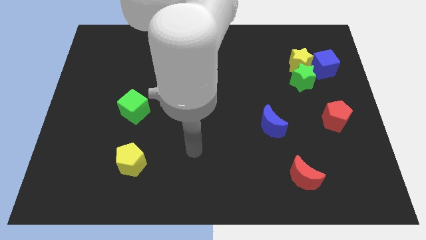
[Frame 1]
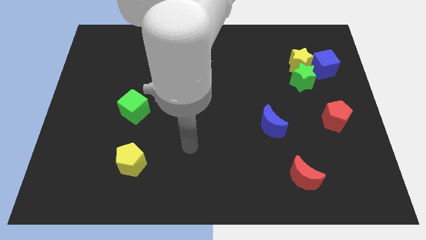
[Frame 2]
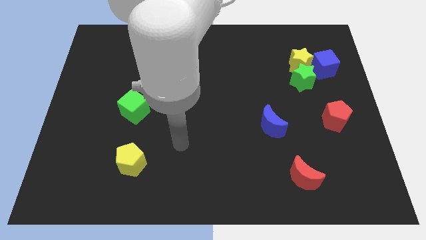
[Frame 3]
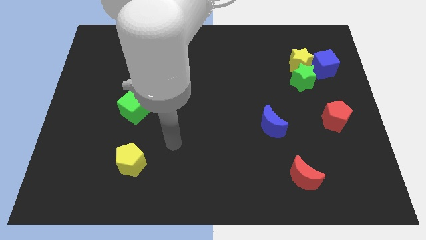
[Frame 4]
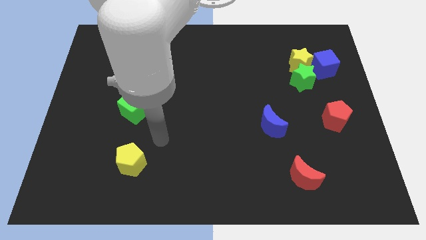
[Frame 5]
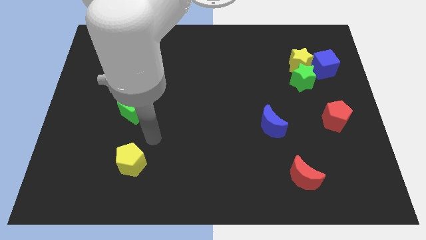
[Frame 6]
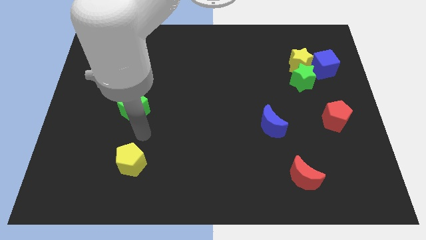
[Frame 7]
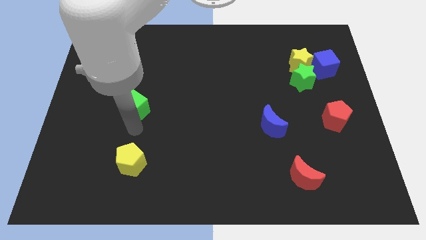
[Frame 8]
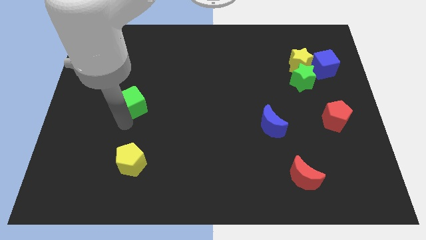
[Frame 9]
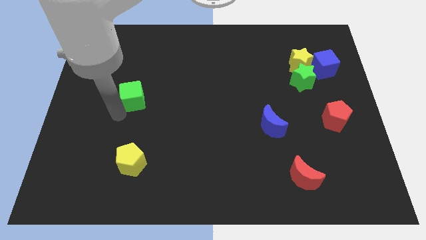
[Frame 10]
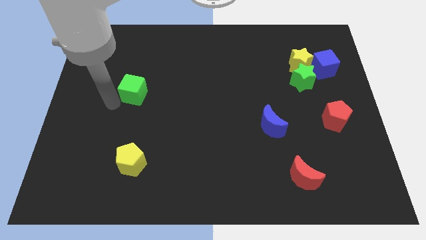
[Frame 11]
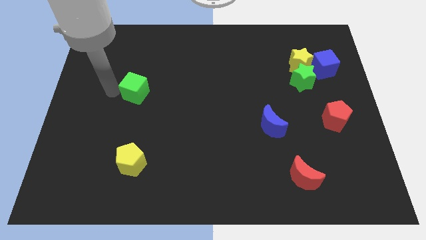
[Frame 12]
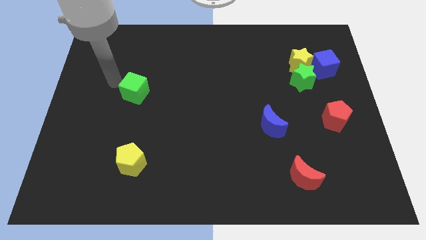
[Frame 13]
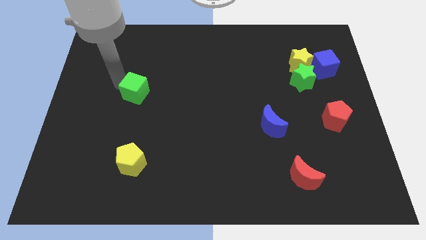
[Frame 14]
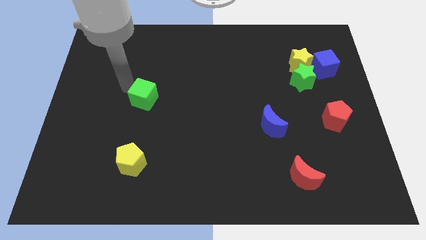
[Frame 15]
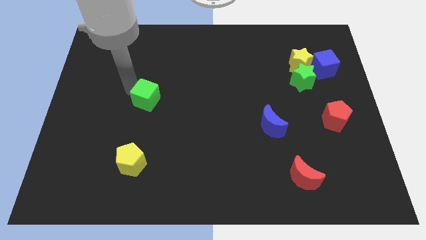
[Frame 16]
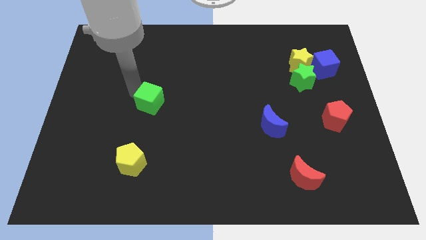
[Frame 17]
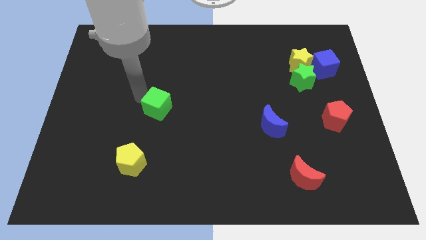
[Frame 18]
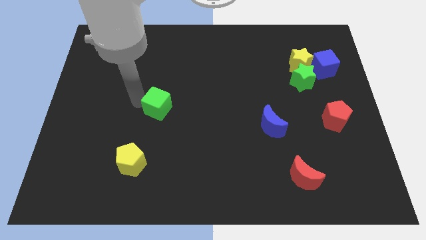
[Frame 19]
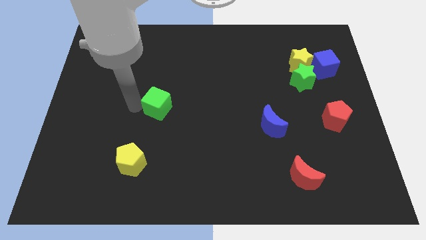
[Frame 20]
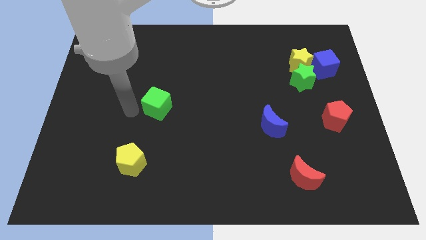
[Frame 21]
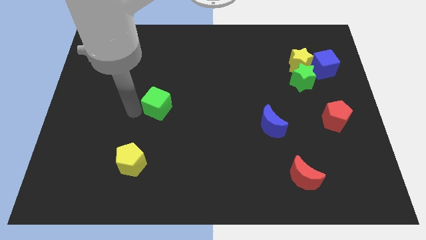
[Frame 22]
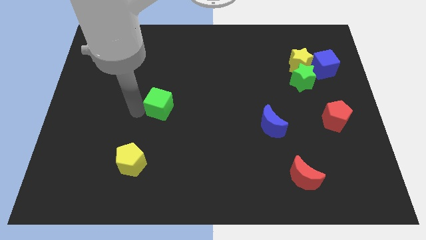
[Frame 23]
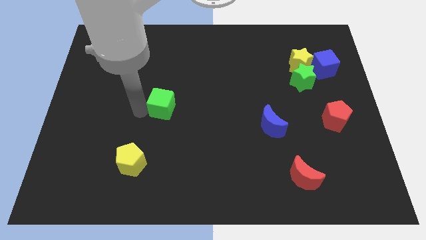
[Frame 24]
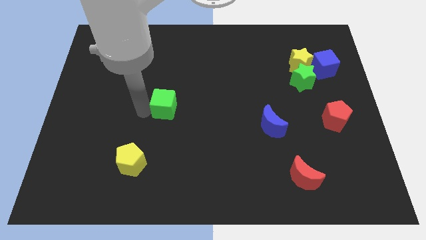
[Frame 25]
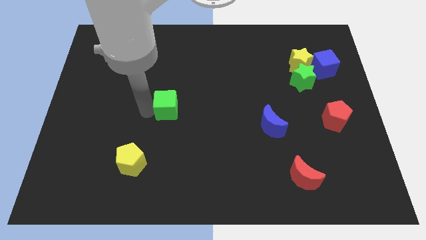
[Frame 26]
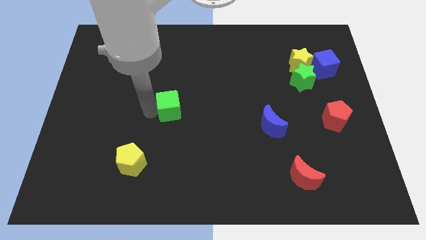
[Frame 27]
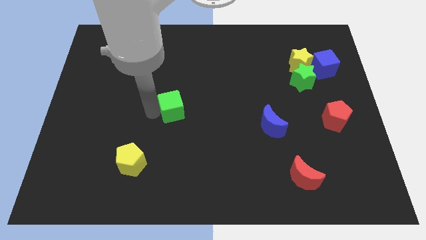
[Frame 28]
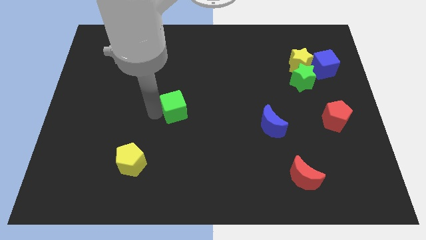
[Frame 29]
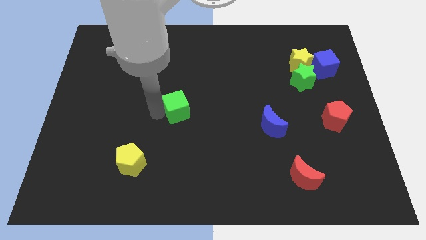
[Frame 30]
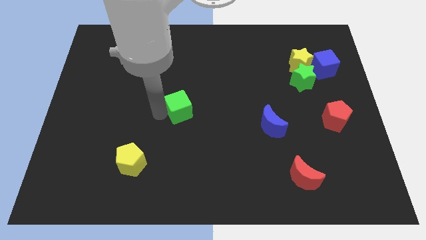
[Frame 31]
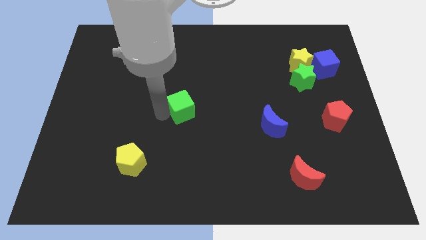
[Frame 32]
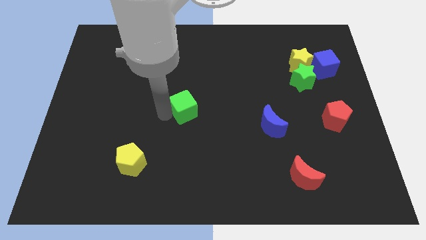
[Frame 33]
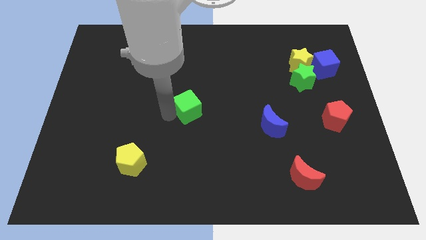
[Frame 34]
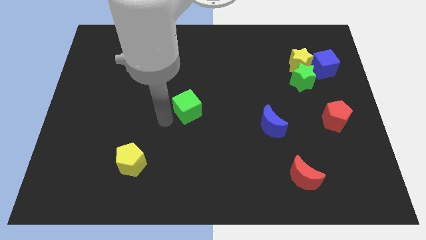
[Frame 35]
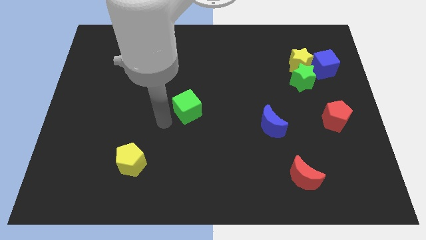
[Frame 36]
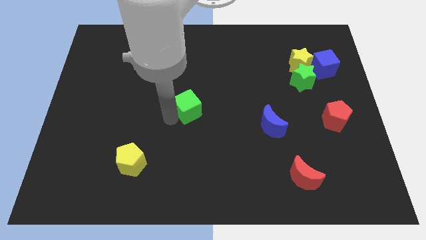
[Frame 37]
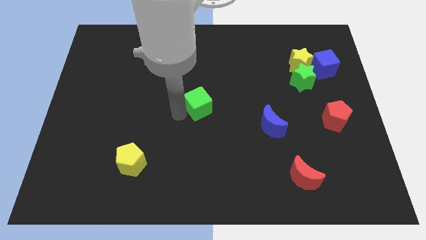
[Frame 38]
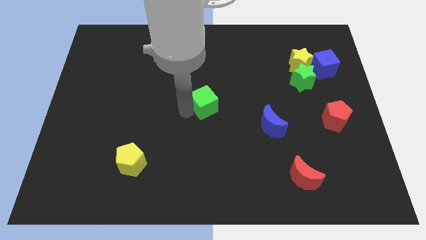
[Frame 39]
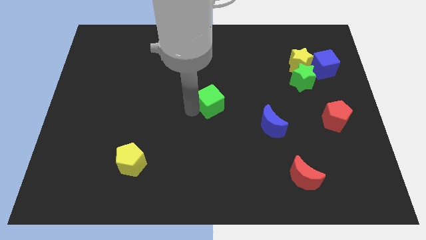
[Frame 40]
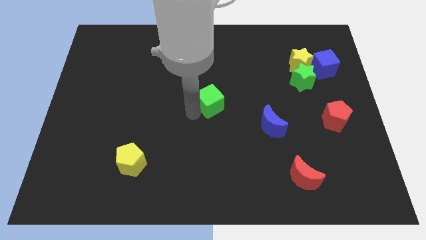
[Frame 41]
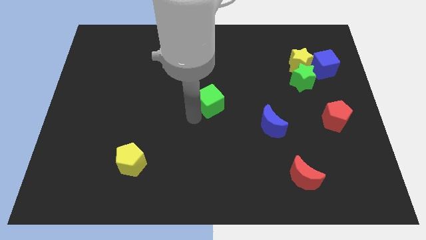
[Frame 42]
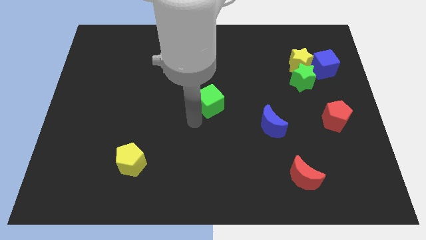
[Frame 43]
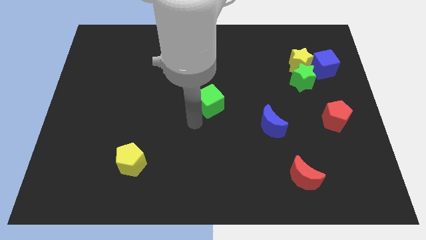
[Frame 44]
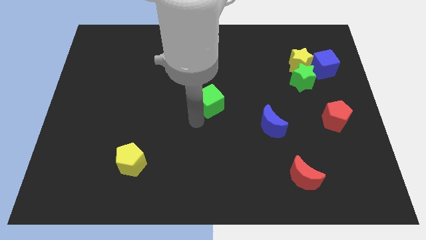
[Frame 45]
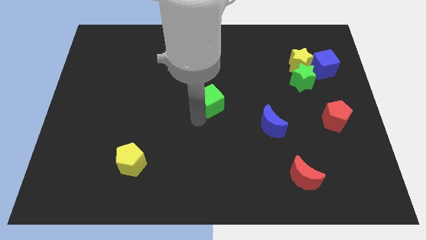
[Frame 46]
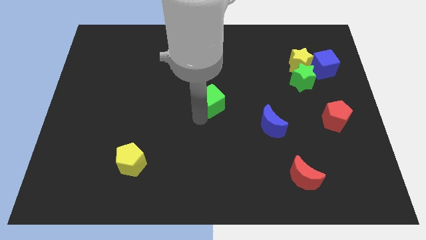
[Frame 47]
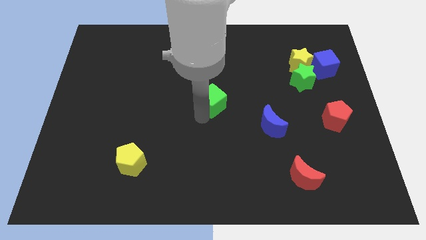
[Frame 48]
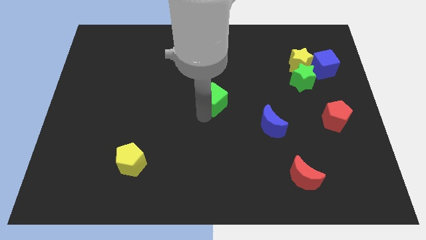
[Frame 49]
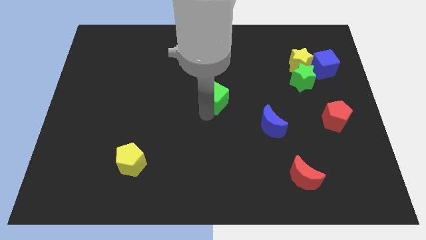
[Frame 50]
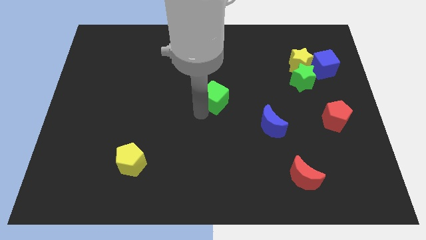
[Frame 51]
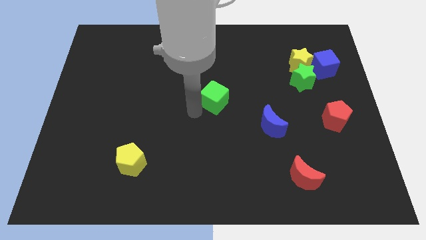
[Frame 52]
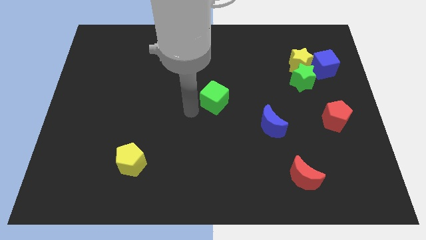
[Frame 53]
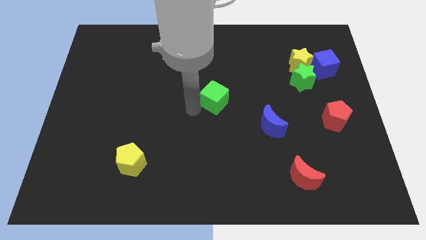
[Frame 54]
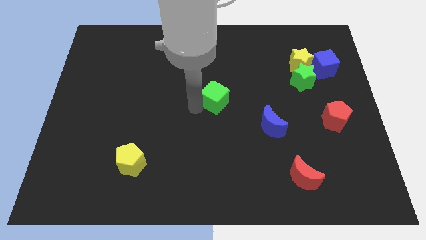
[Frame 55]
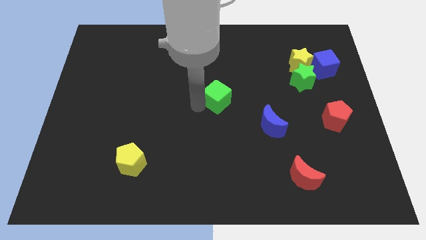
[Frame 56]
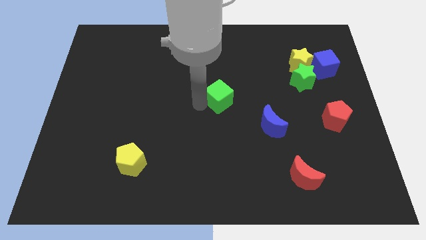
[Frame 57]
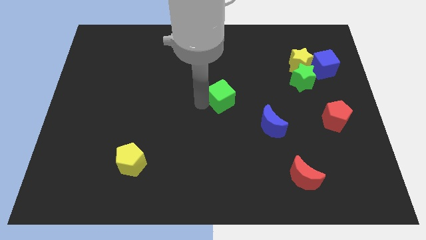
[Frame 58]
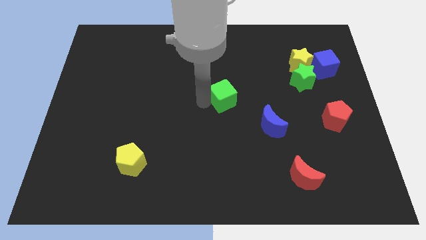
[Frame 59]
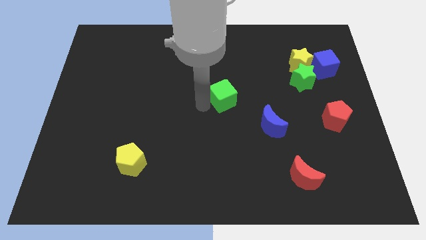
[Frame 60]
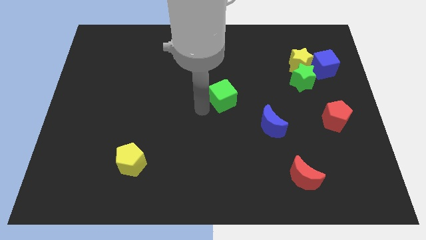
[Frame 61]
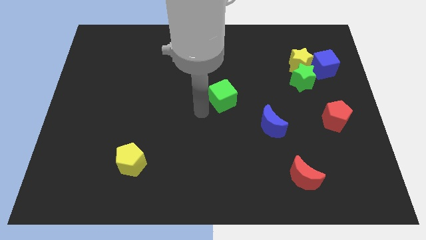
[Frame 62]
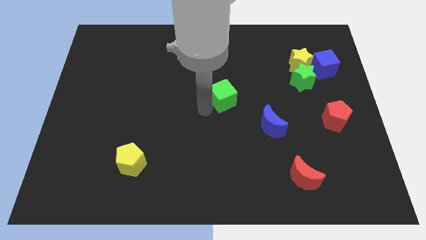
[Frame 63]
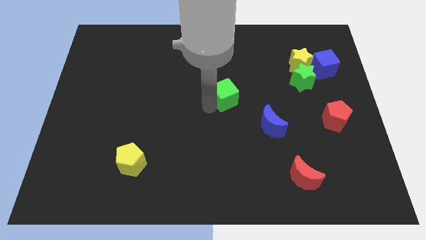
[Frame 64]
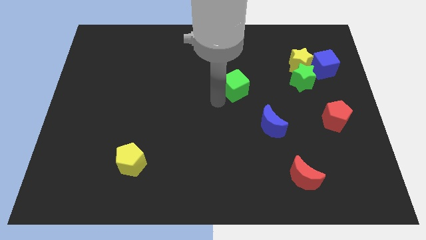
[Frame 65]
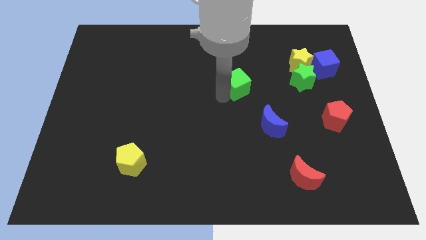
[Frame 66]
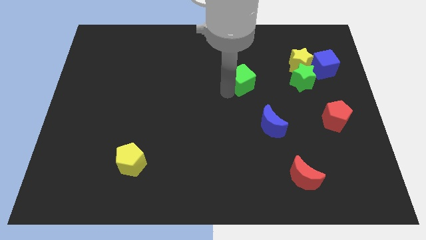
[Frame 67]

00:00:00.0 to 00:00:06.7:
slide the green cube left of the green star
